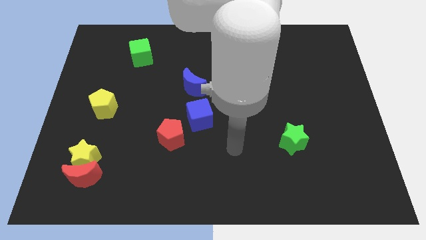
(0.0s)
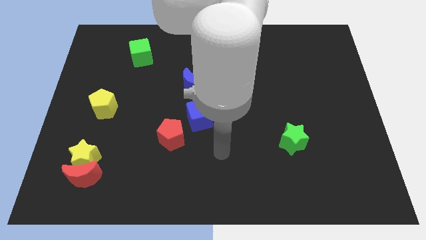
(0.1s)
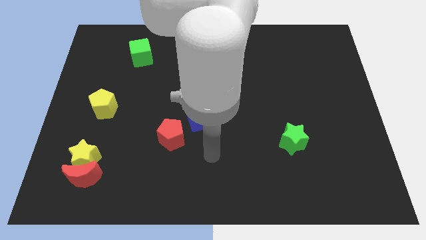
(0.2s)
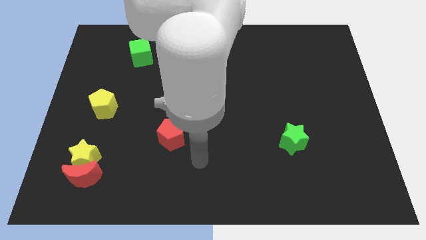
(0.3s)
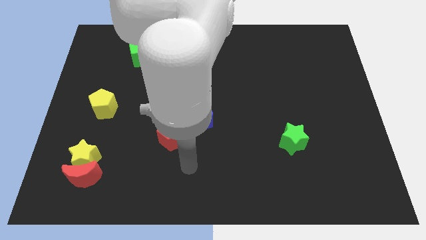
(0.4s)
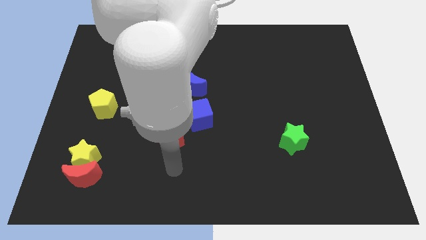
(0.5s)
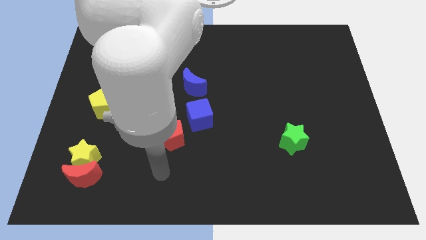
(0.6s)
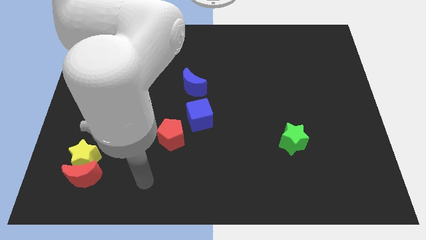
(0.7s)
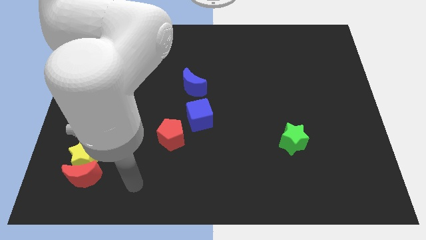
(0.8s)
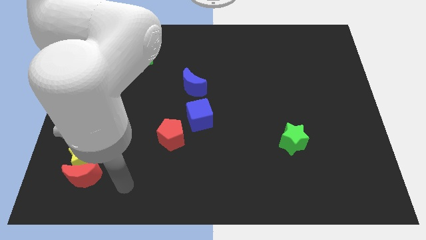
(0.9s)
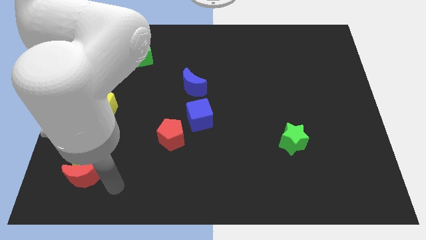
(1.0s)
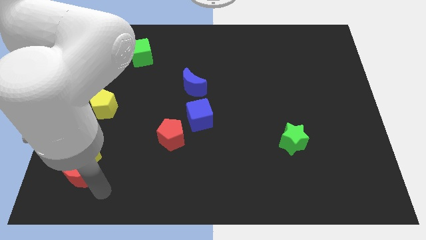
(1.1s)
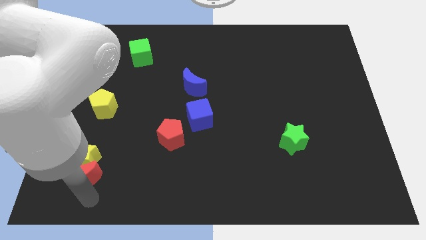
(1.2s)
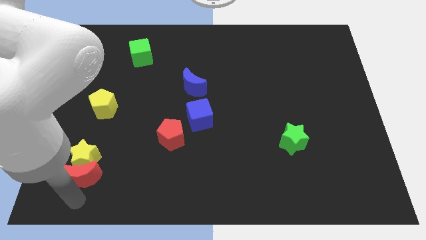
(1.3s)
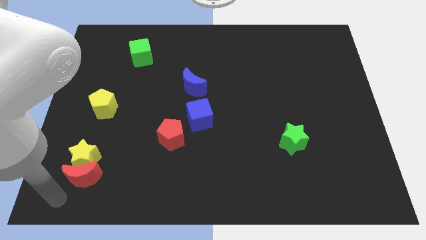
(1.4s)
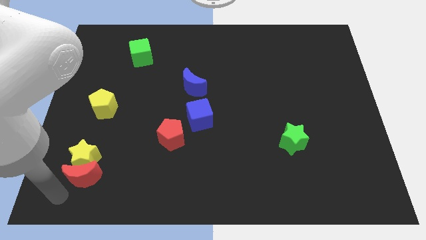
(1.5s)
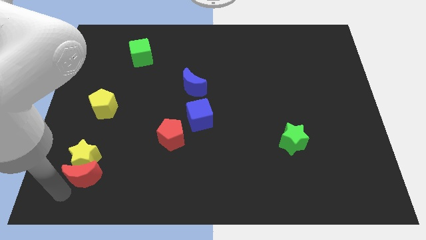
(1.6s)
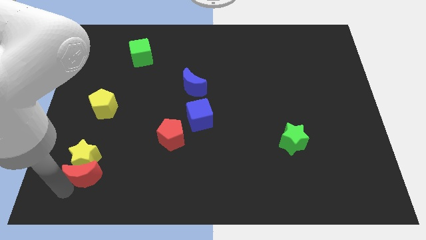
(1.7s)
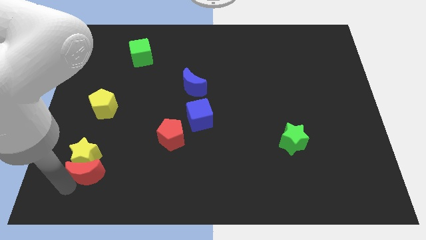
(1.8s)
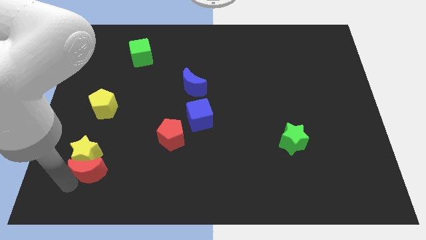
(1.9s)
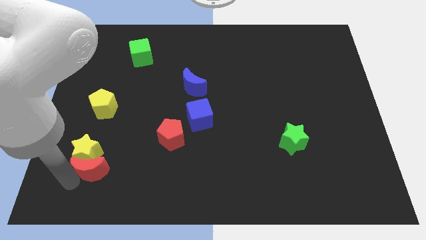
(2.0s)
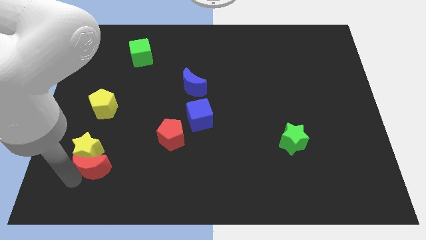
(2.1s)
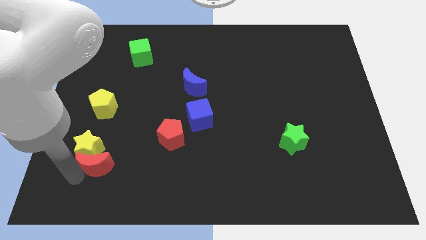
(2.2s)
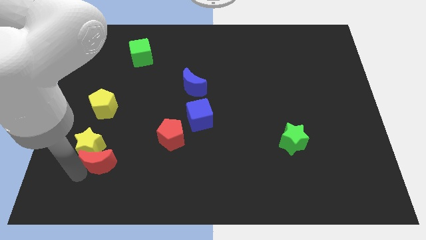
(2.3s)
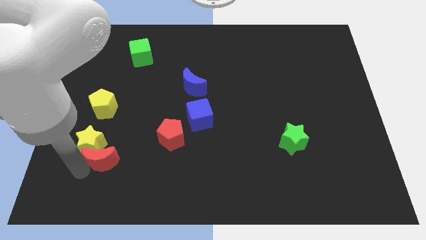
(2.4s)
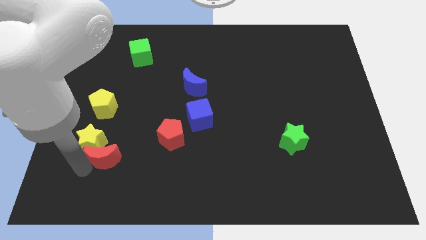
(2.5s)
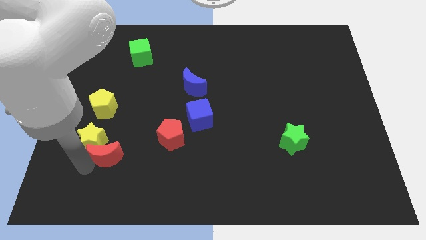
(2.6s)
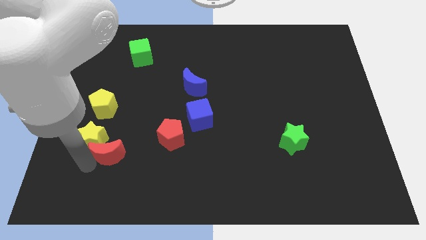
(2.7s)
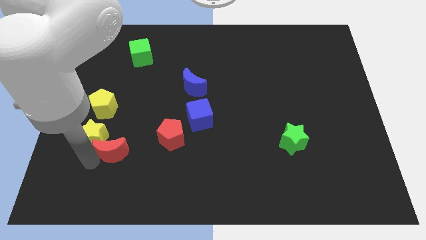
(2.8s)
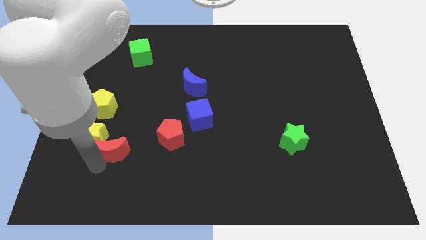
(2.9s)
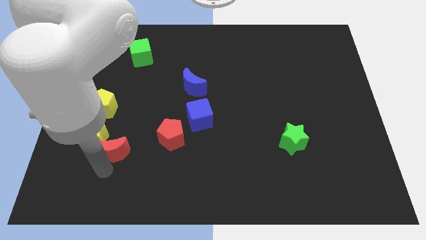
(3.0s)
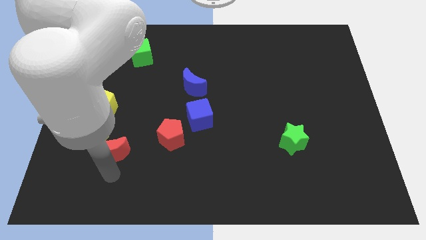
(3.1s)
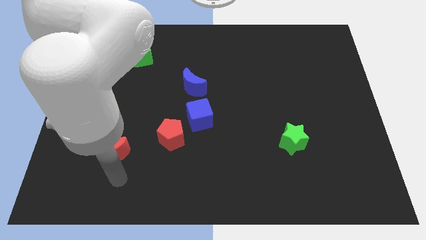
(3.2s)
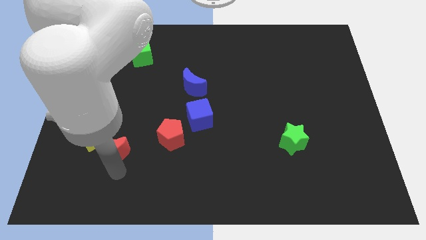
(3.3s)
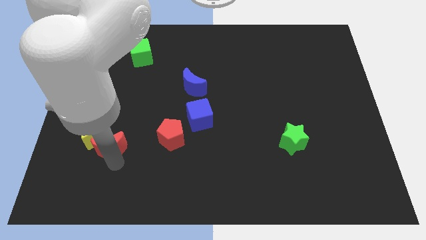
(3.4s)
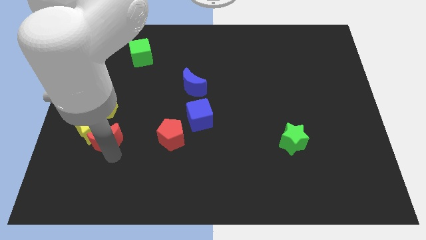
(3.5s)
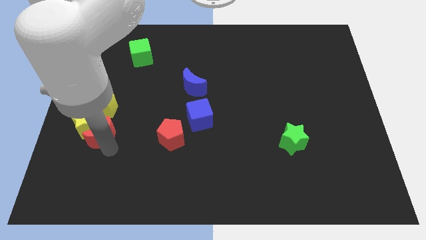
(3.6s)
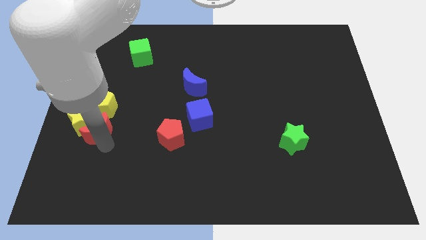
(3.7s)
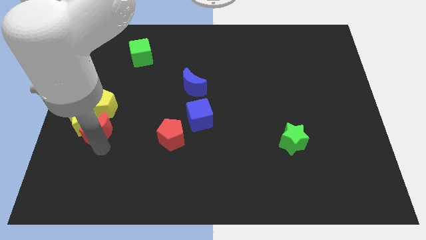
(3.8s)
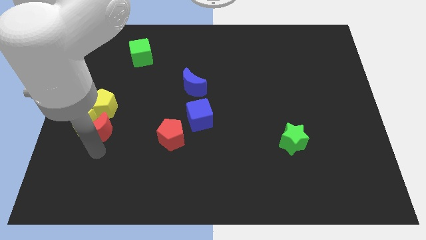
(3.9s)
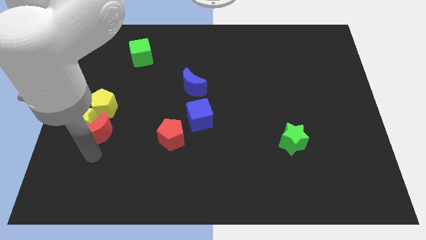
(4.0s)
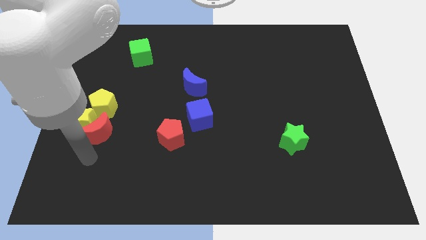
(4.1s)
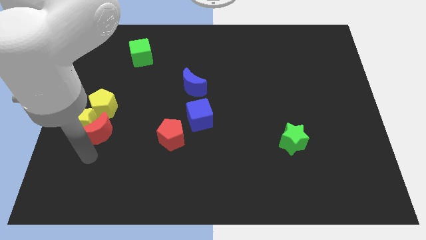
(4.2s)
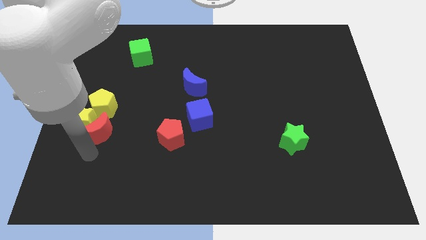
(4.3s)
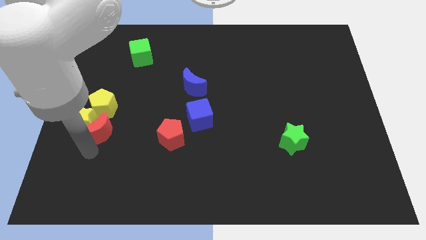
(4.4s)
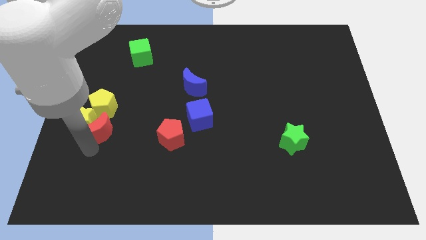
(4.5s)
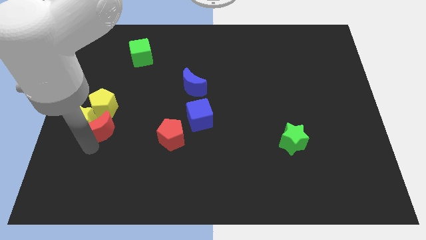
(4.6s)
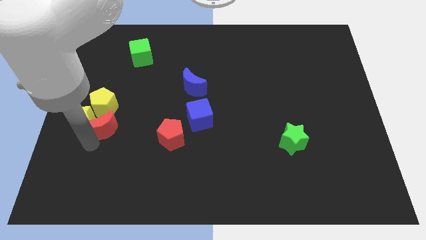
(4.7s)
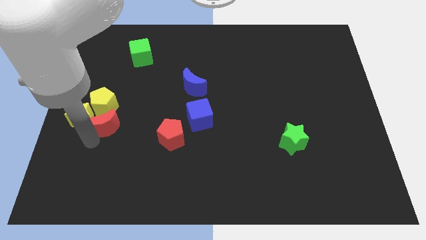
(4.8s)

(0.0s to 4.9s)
put the red moon towards the yellow pentagon

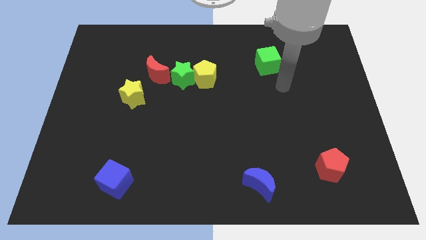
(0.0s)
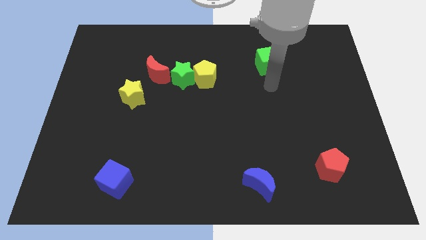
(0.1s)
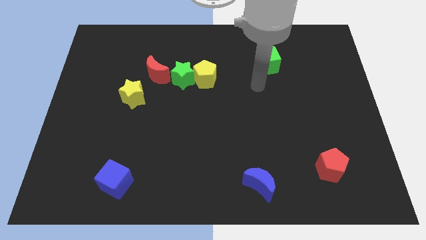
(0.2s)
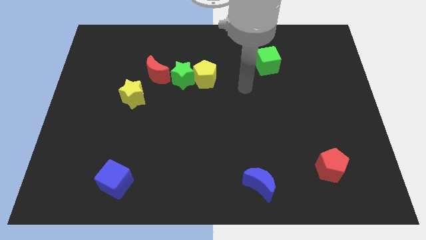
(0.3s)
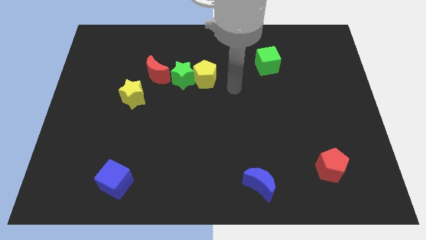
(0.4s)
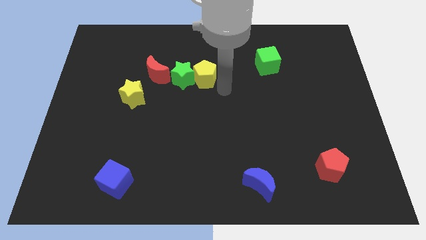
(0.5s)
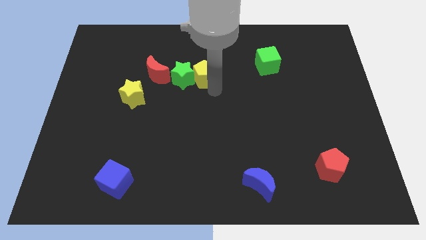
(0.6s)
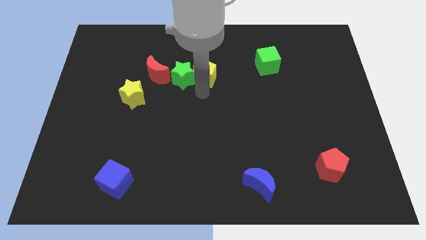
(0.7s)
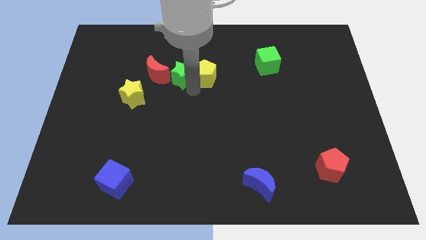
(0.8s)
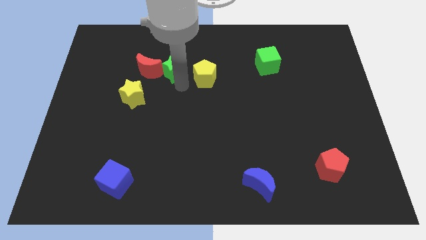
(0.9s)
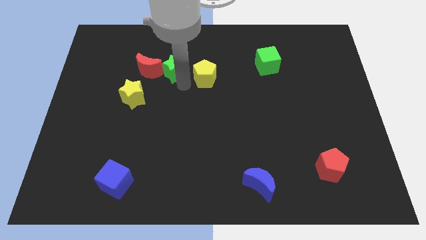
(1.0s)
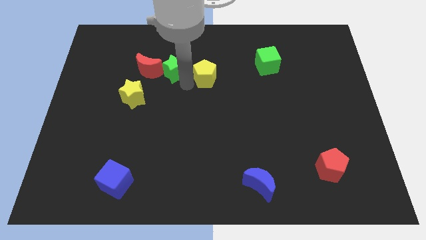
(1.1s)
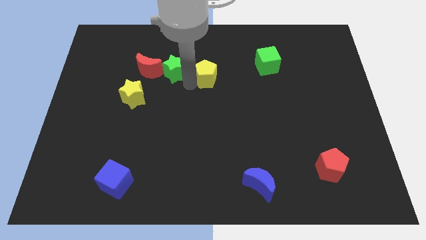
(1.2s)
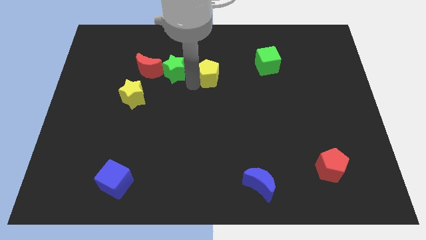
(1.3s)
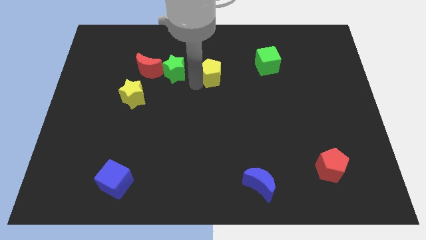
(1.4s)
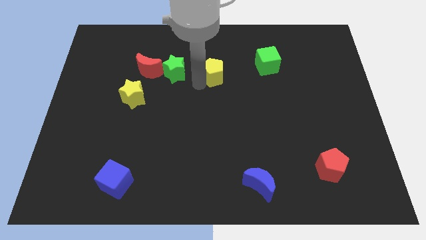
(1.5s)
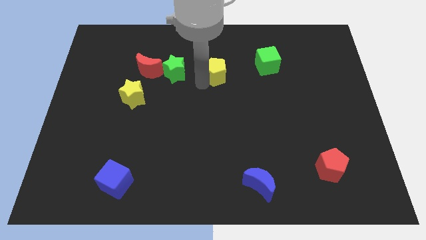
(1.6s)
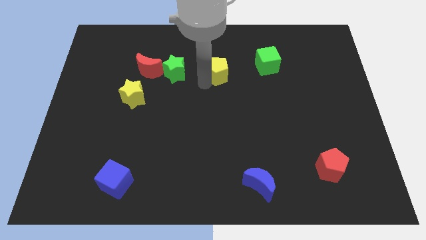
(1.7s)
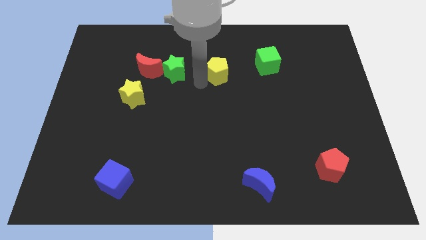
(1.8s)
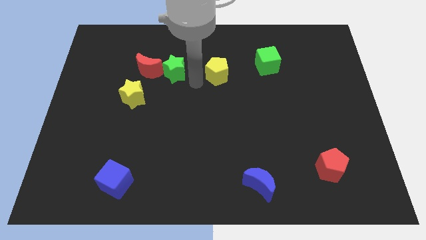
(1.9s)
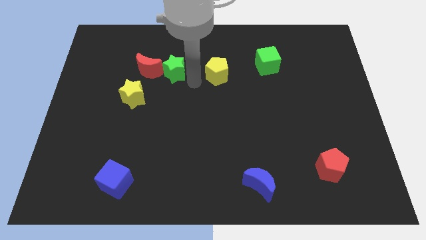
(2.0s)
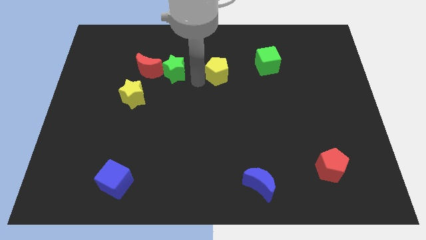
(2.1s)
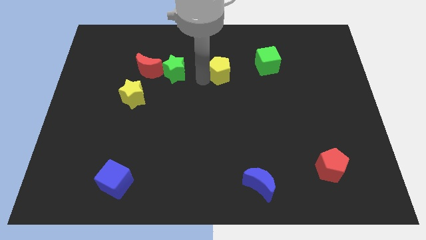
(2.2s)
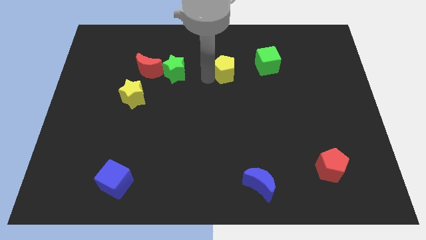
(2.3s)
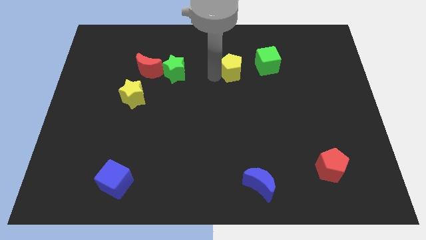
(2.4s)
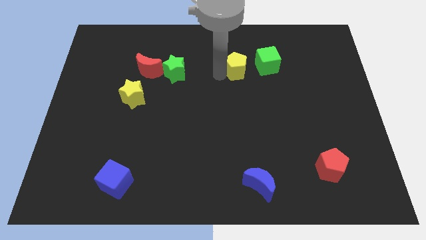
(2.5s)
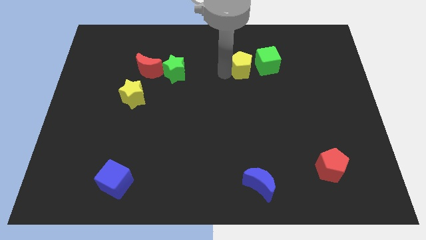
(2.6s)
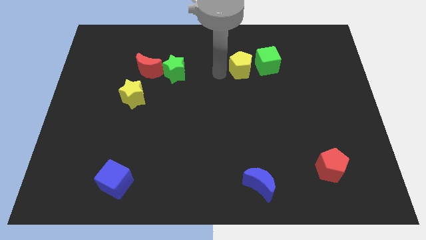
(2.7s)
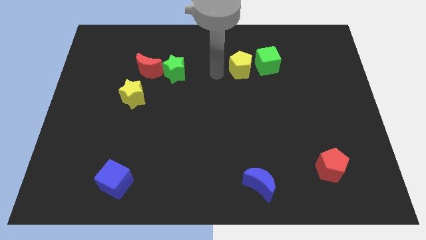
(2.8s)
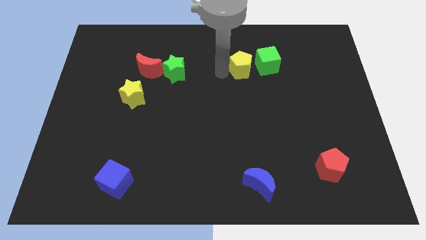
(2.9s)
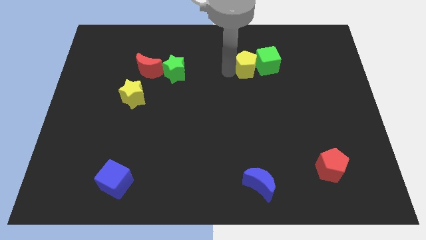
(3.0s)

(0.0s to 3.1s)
slide the yellow pentagon towards the green cube
